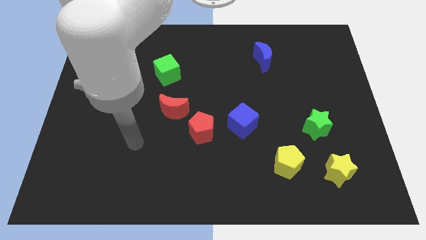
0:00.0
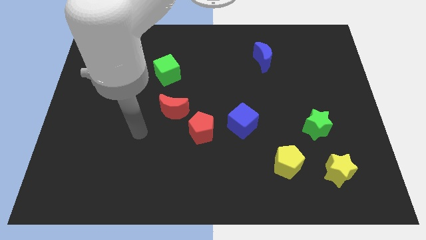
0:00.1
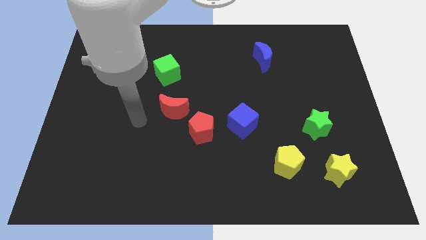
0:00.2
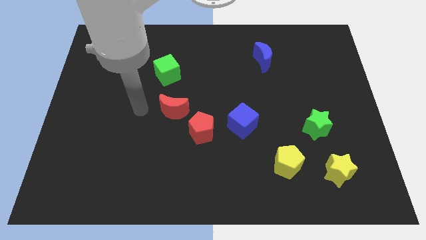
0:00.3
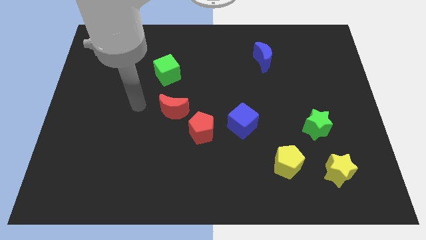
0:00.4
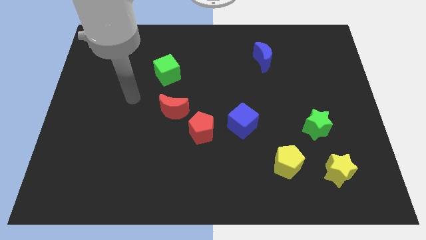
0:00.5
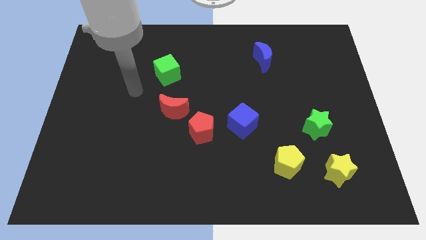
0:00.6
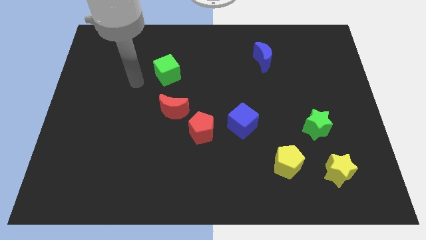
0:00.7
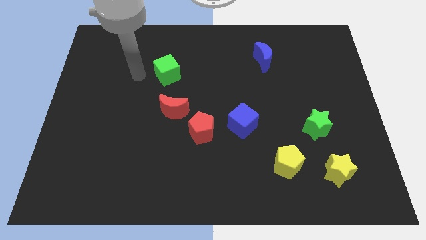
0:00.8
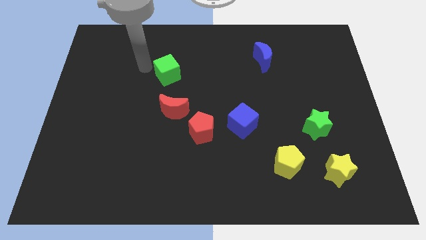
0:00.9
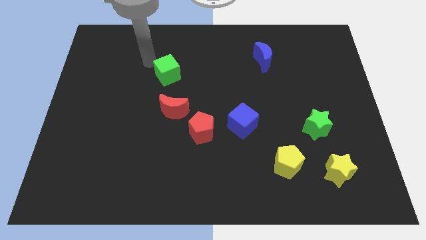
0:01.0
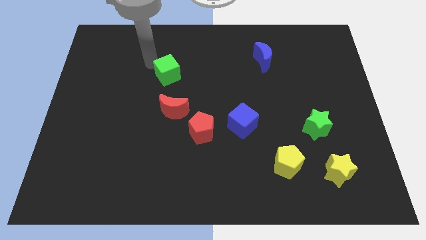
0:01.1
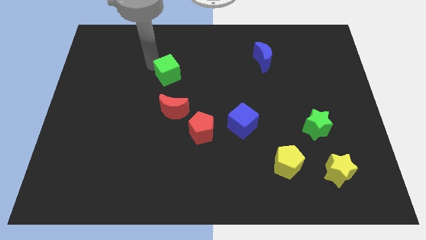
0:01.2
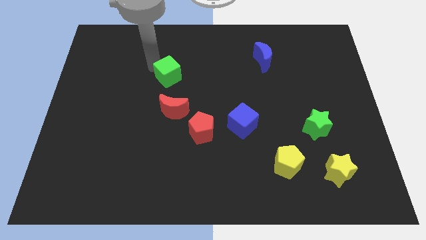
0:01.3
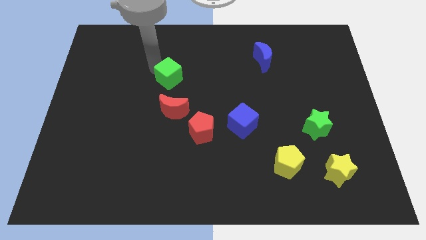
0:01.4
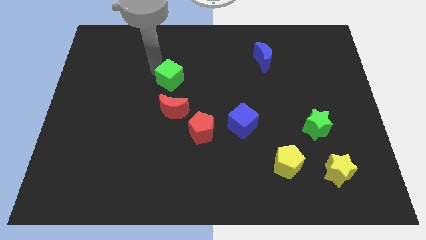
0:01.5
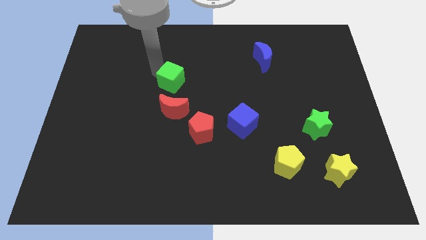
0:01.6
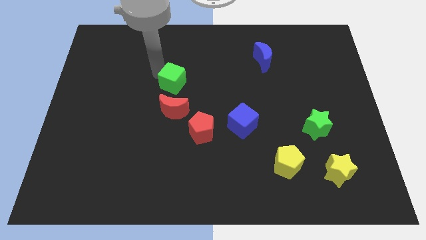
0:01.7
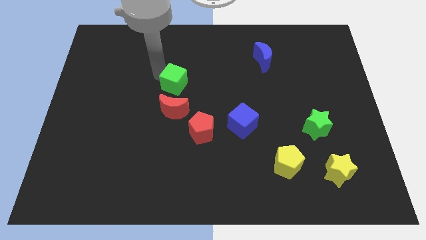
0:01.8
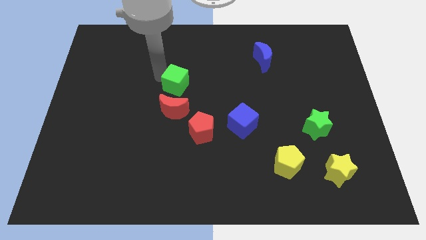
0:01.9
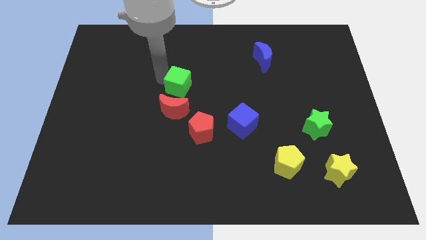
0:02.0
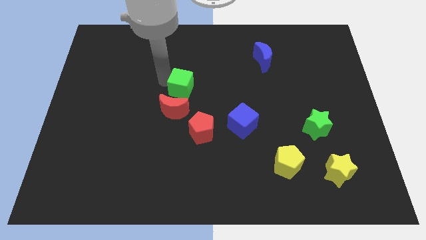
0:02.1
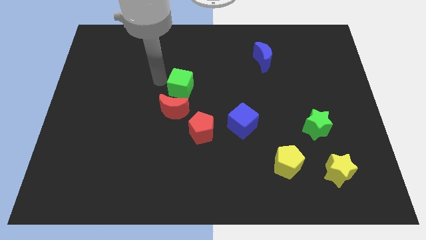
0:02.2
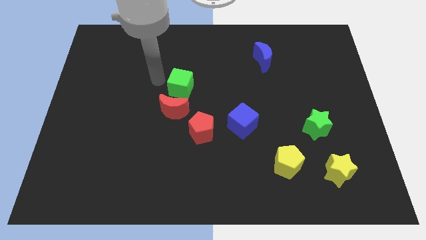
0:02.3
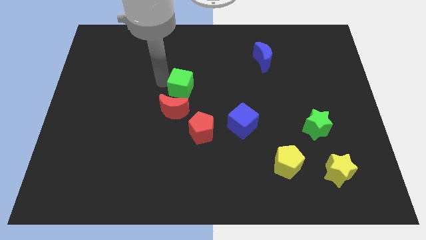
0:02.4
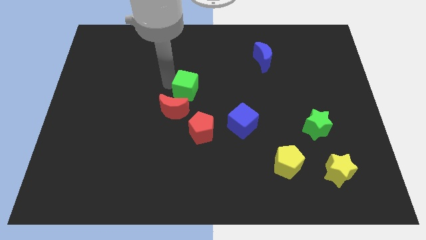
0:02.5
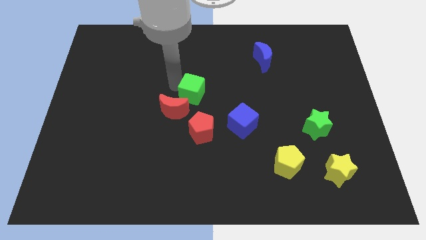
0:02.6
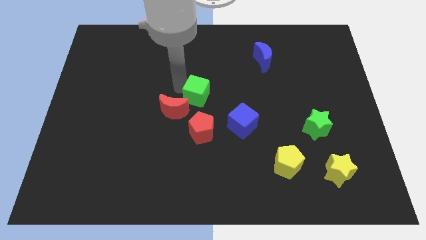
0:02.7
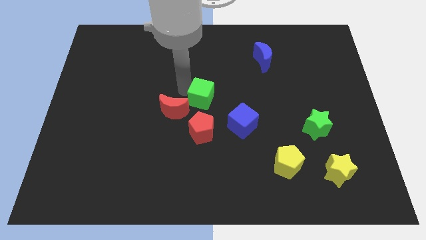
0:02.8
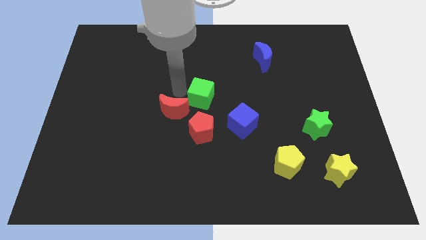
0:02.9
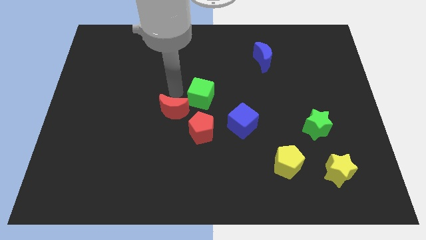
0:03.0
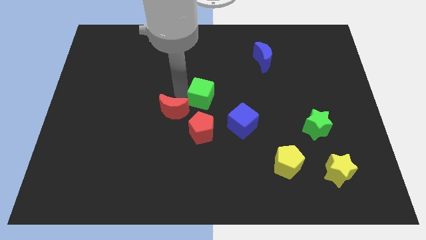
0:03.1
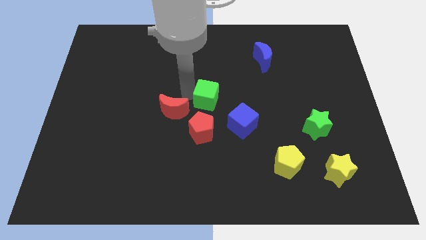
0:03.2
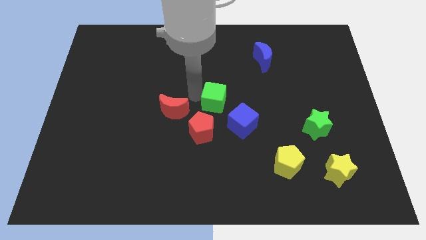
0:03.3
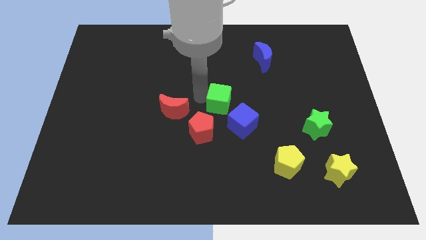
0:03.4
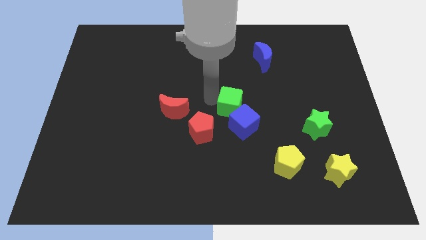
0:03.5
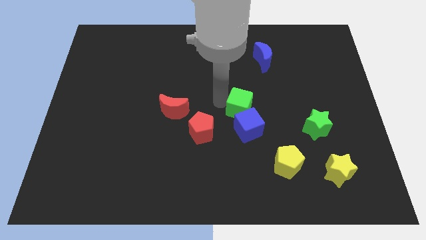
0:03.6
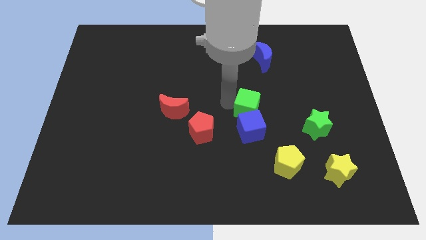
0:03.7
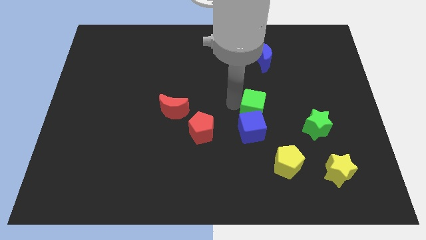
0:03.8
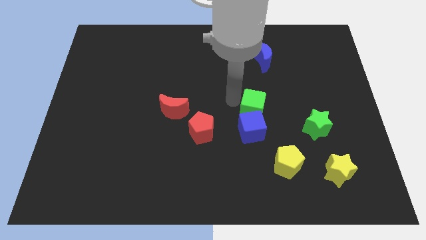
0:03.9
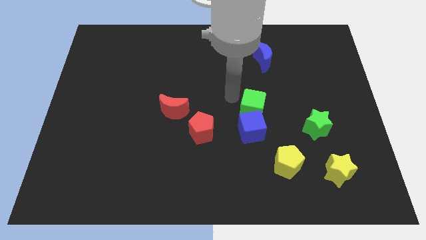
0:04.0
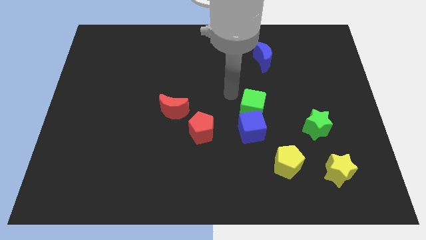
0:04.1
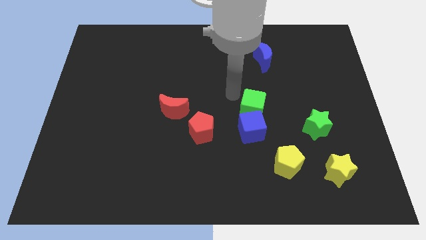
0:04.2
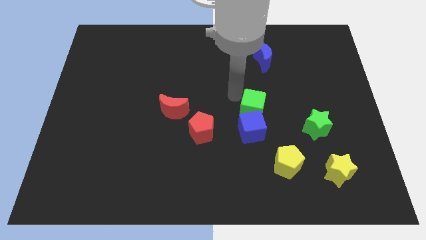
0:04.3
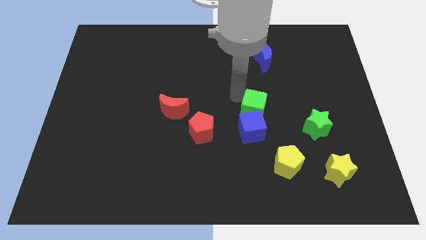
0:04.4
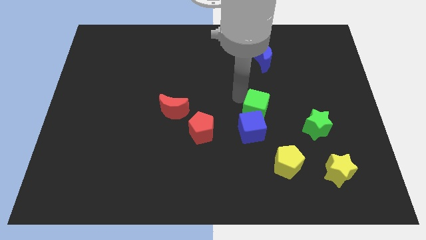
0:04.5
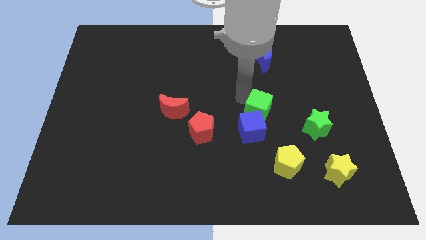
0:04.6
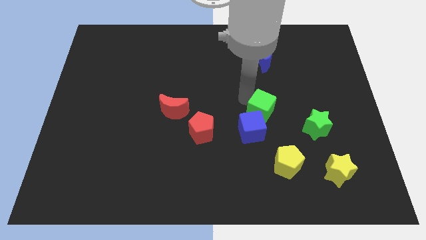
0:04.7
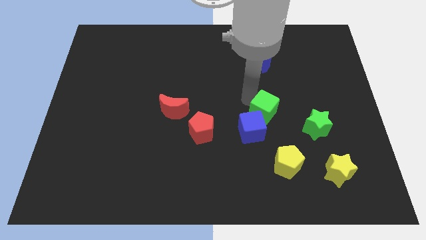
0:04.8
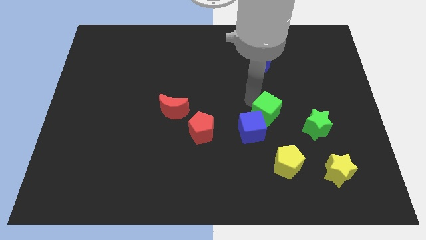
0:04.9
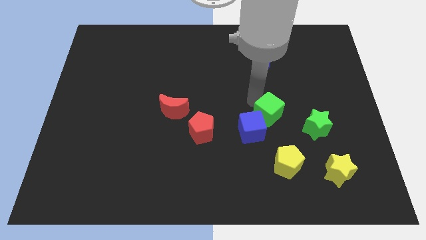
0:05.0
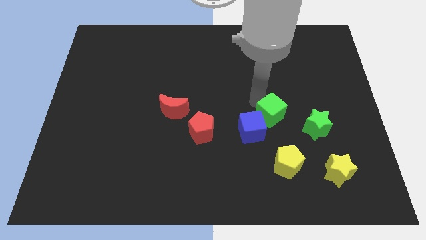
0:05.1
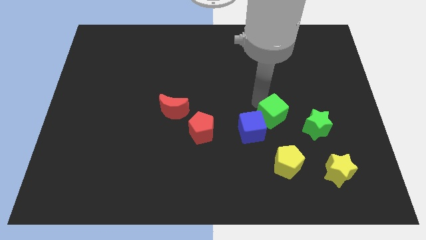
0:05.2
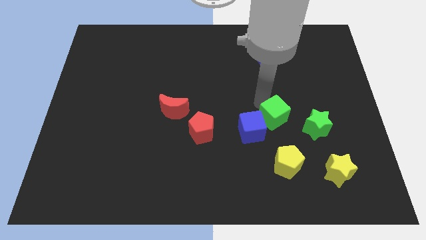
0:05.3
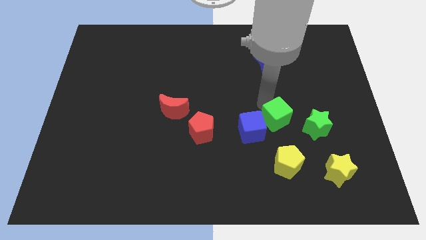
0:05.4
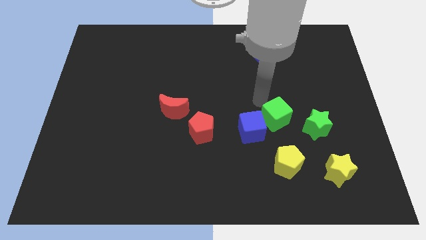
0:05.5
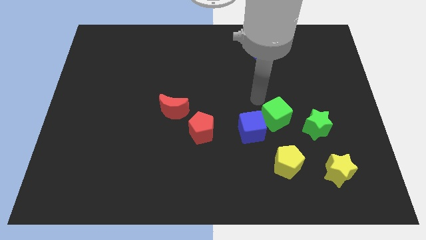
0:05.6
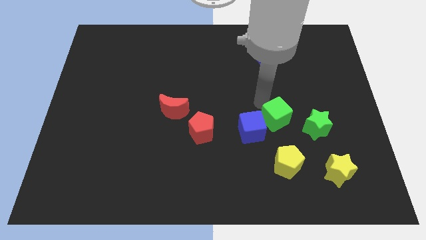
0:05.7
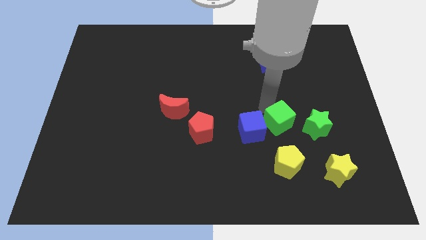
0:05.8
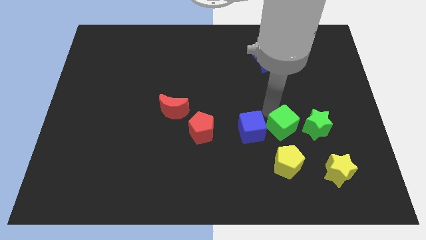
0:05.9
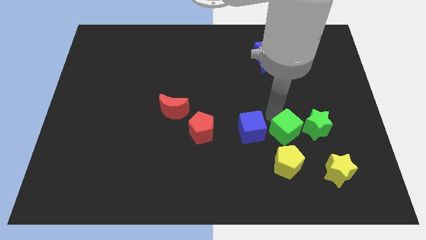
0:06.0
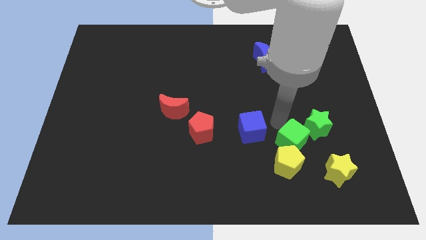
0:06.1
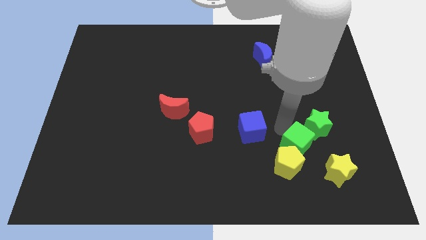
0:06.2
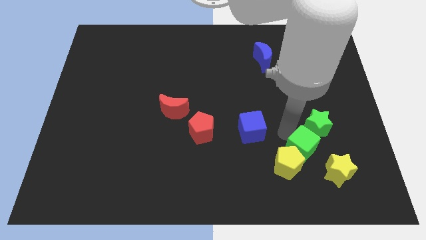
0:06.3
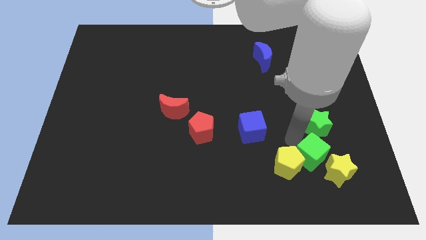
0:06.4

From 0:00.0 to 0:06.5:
put the green cube towards the yellow star

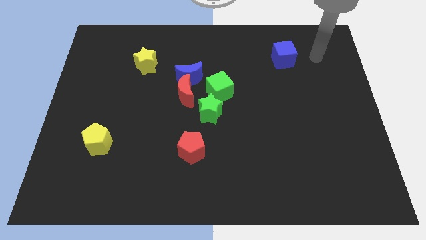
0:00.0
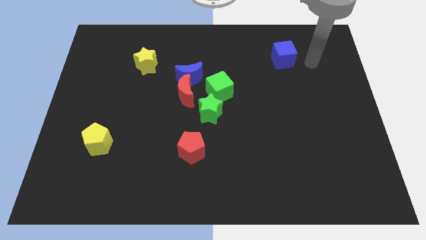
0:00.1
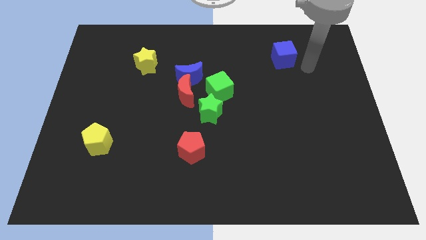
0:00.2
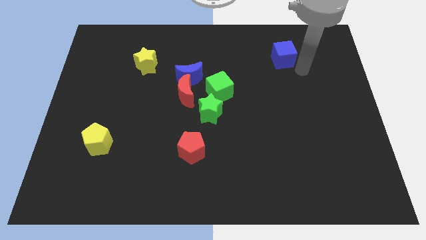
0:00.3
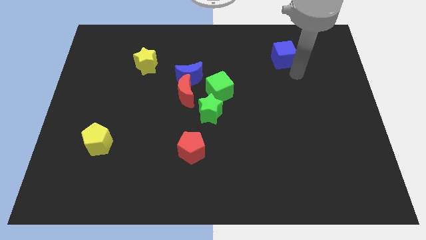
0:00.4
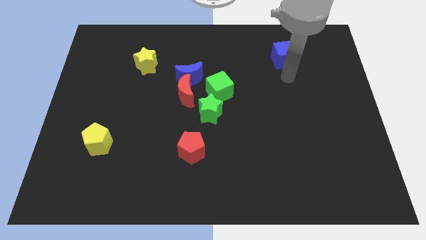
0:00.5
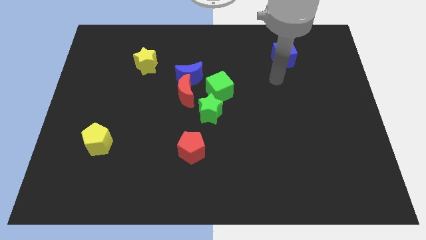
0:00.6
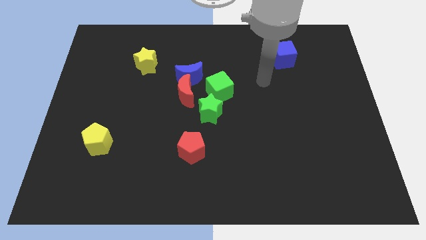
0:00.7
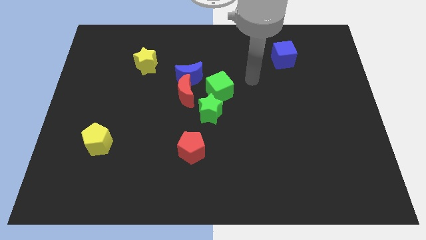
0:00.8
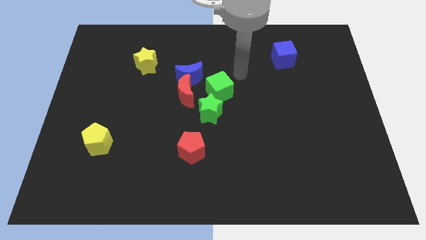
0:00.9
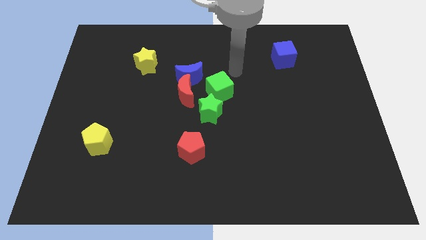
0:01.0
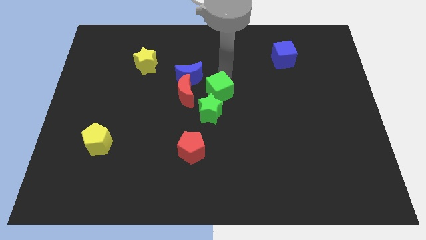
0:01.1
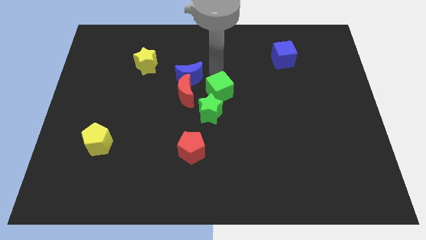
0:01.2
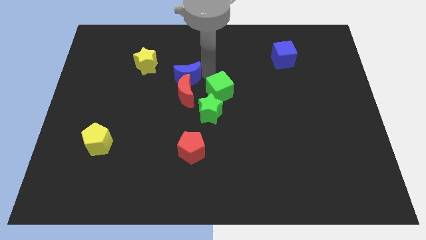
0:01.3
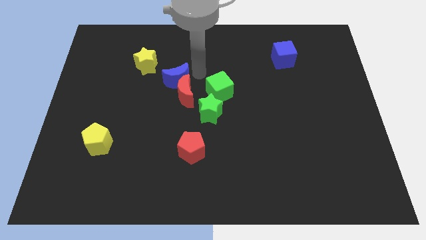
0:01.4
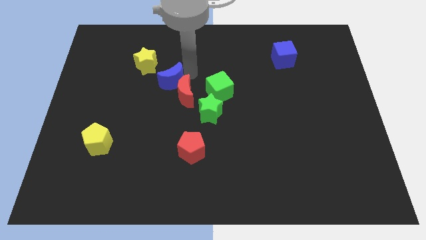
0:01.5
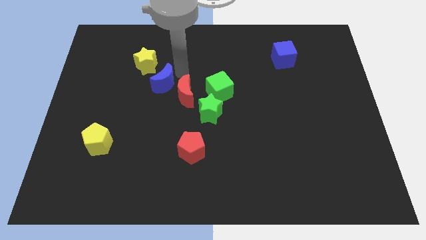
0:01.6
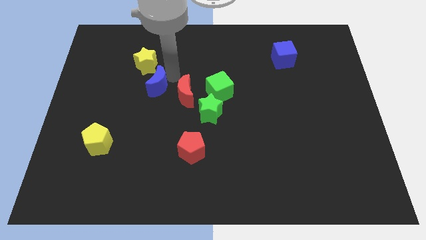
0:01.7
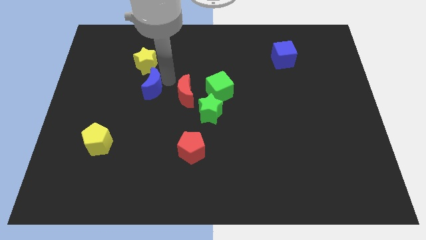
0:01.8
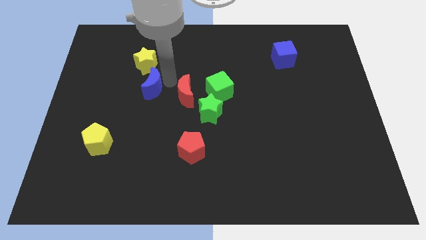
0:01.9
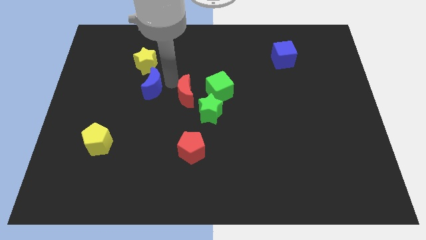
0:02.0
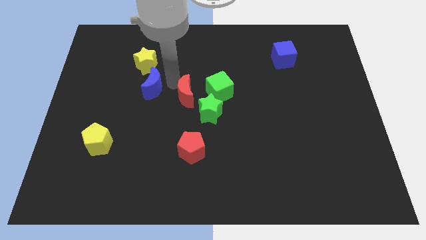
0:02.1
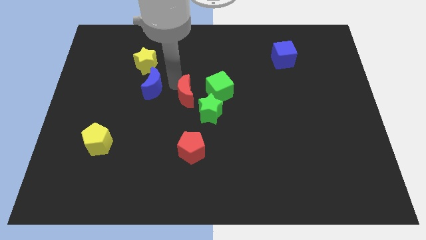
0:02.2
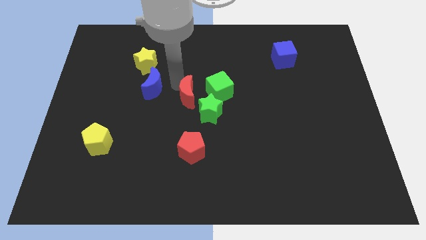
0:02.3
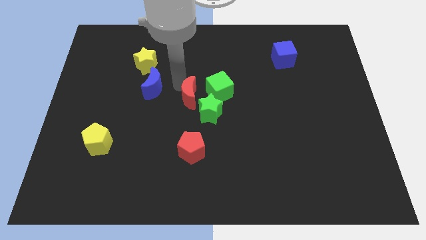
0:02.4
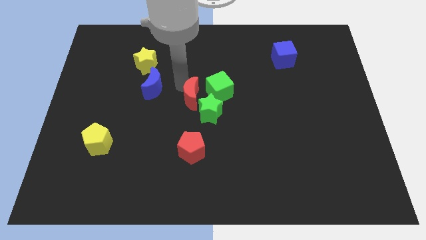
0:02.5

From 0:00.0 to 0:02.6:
push the red moon next to the green star
